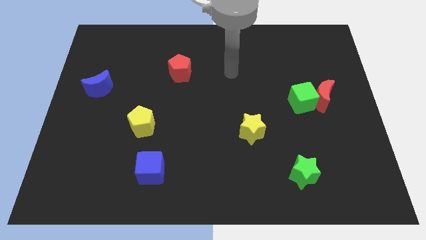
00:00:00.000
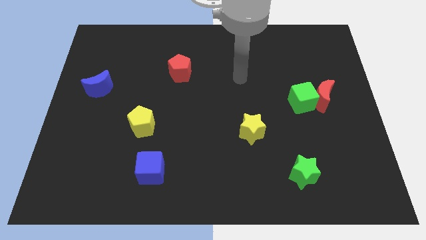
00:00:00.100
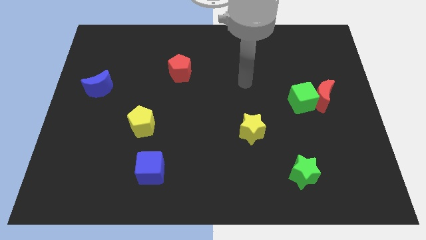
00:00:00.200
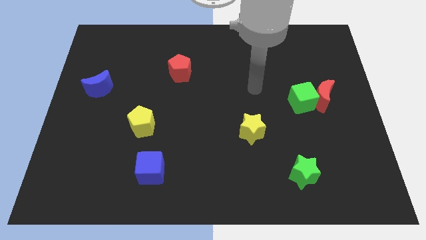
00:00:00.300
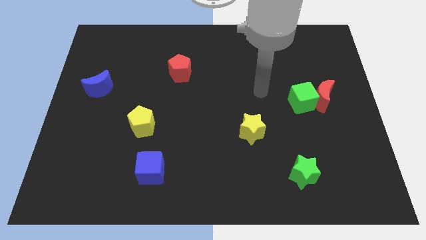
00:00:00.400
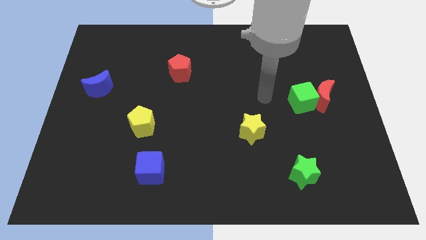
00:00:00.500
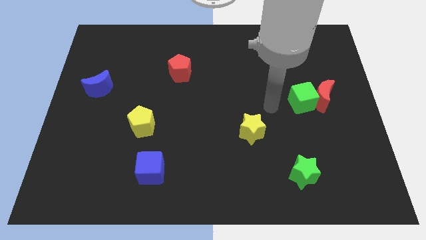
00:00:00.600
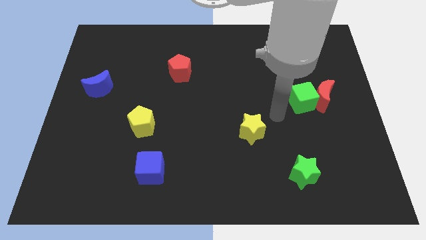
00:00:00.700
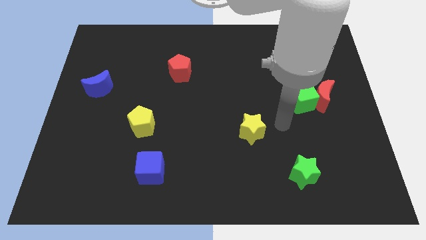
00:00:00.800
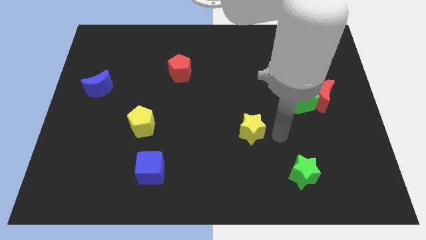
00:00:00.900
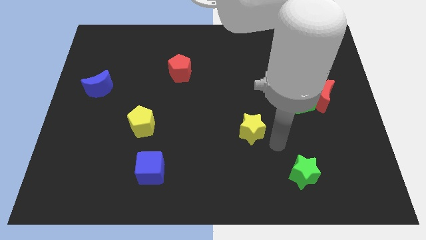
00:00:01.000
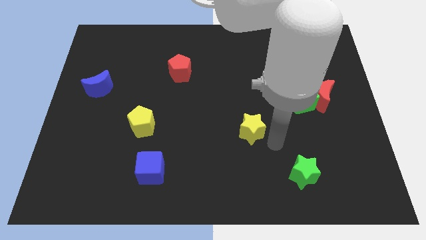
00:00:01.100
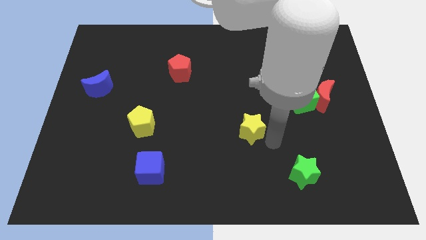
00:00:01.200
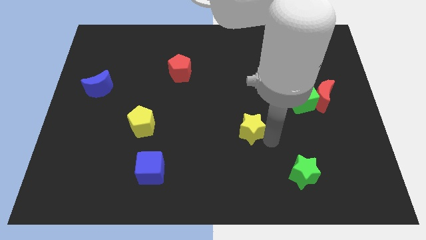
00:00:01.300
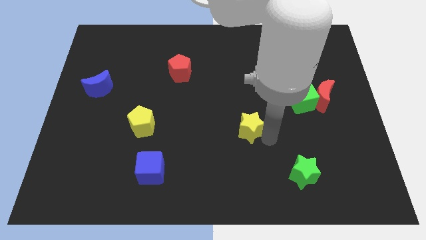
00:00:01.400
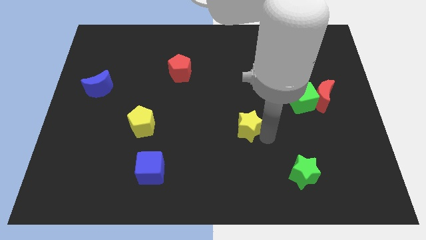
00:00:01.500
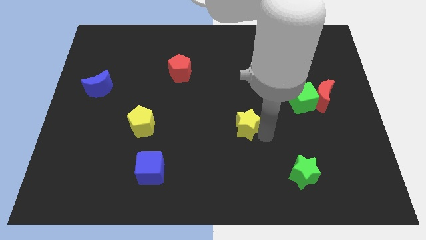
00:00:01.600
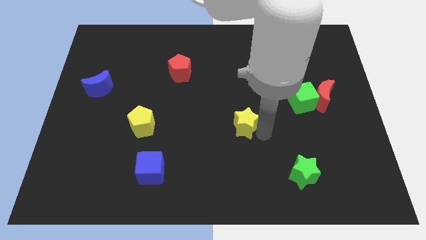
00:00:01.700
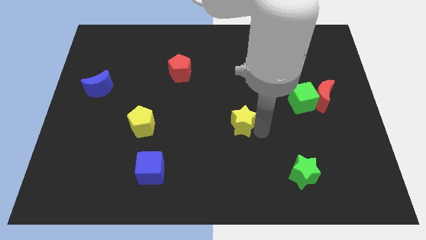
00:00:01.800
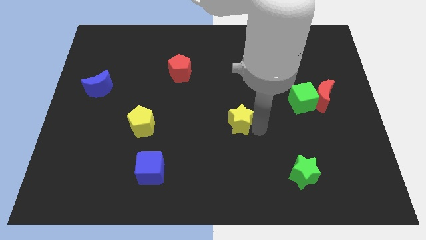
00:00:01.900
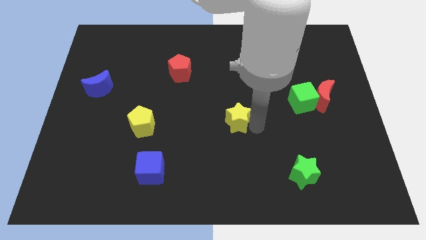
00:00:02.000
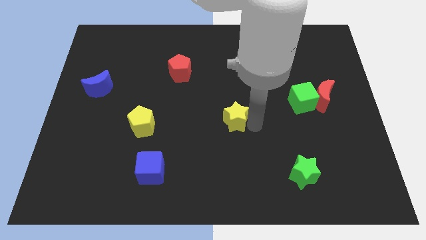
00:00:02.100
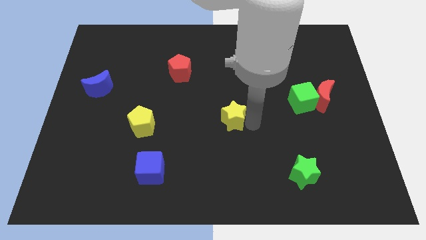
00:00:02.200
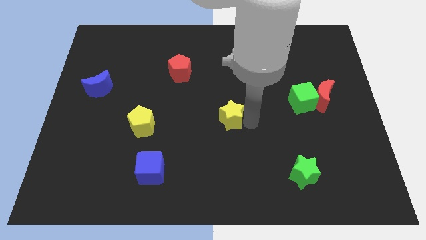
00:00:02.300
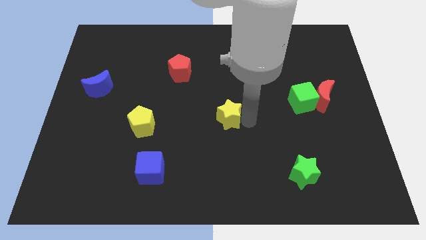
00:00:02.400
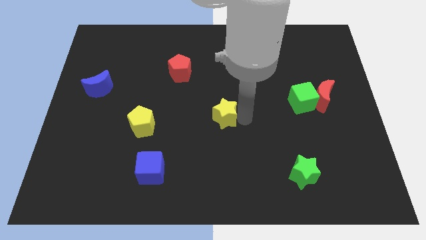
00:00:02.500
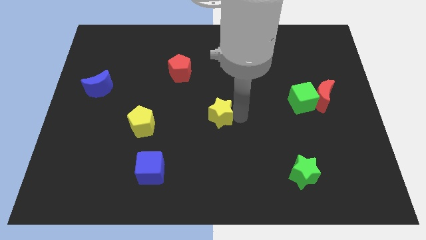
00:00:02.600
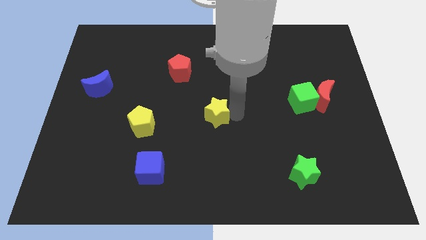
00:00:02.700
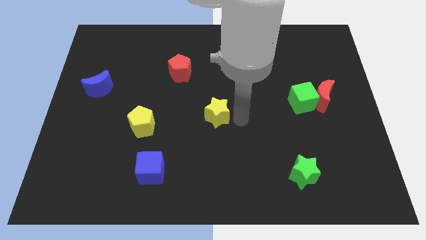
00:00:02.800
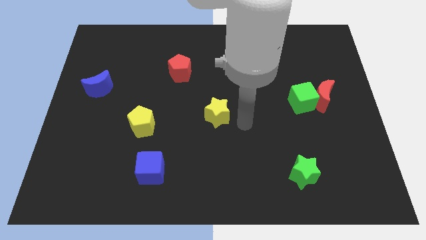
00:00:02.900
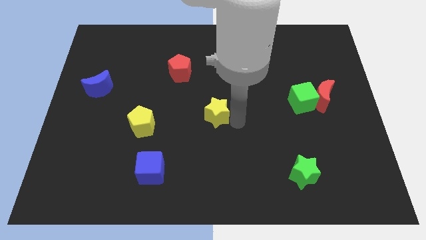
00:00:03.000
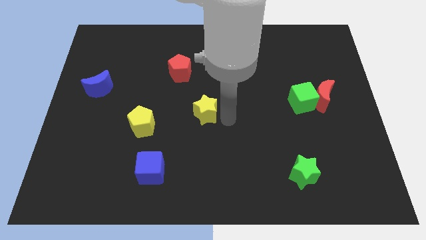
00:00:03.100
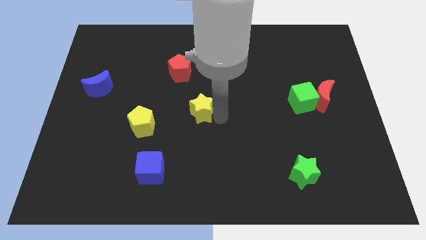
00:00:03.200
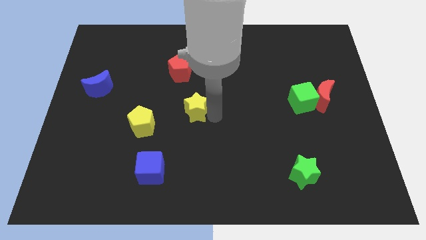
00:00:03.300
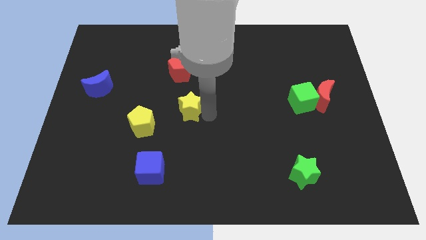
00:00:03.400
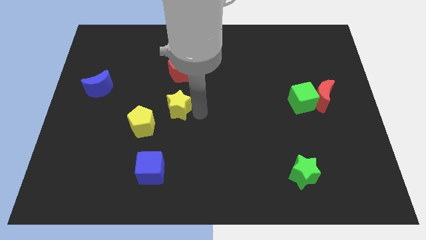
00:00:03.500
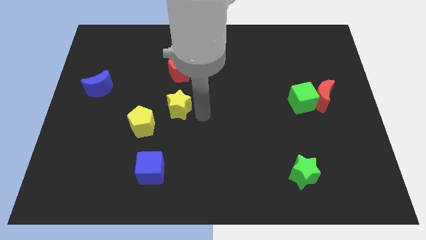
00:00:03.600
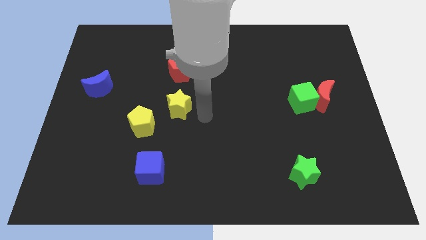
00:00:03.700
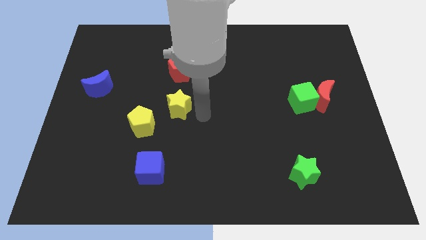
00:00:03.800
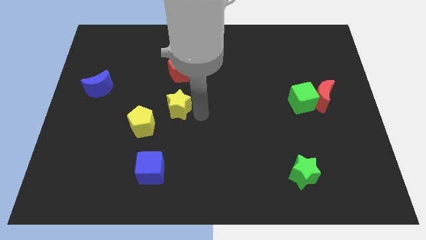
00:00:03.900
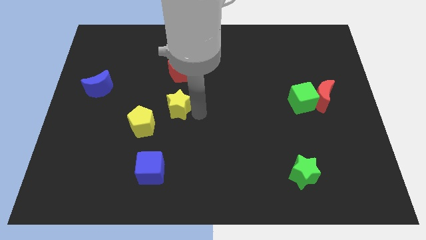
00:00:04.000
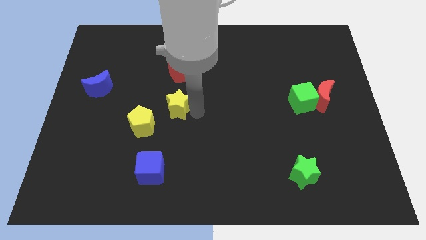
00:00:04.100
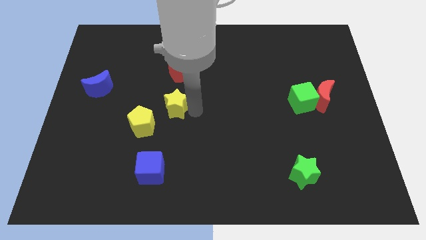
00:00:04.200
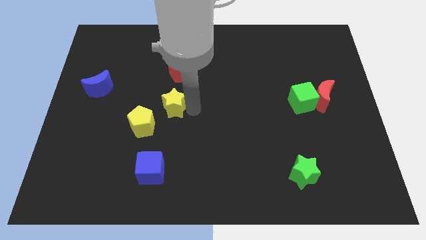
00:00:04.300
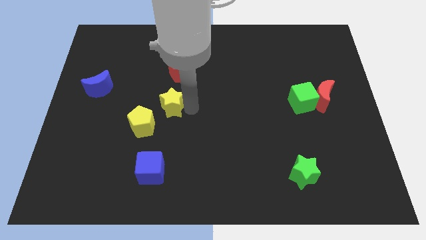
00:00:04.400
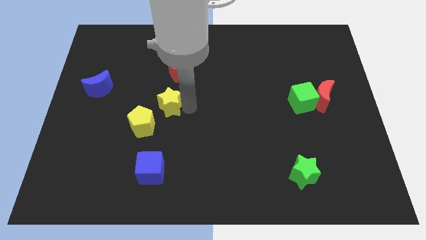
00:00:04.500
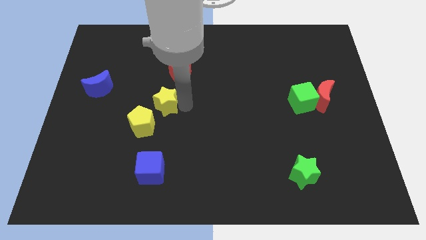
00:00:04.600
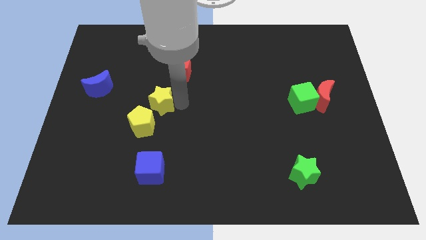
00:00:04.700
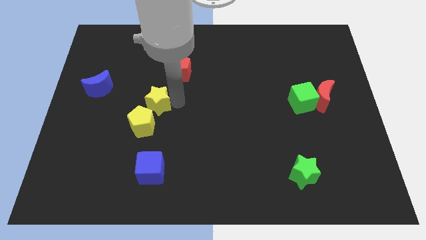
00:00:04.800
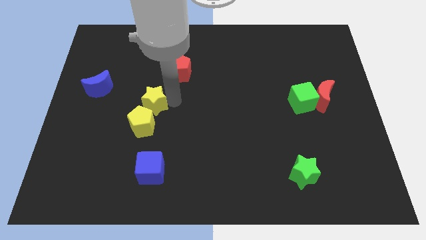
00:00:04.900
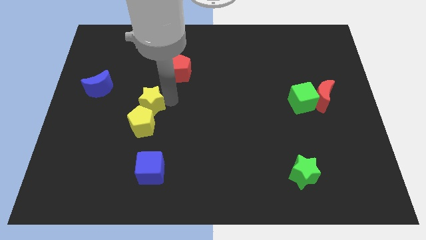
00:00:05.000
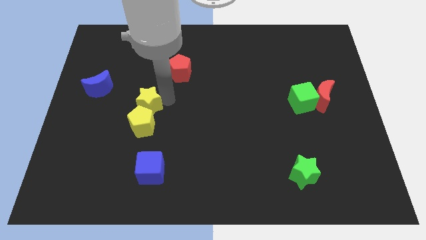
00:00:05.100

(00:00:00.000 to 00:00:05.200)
move the yellow star to the top left of the yellow pentagon

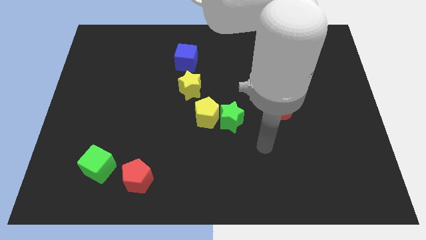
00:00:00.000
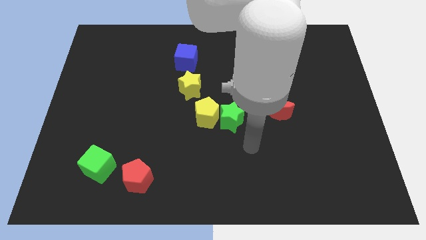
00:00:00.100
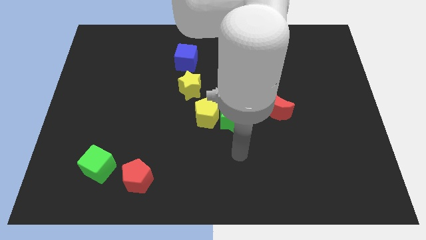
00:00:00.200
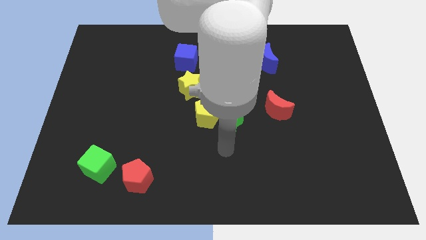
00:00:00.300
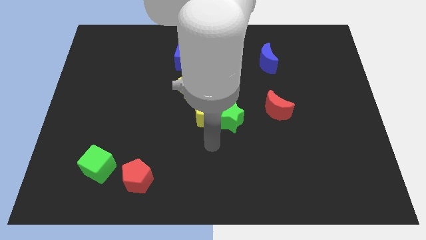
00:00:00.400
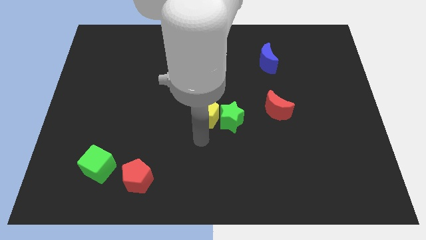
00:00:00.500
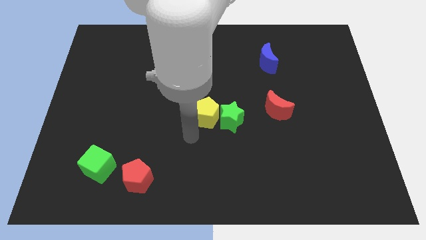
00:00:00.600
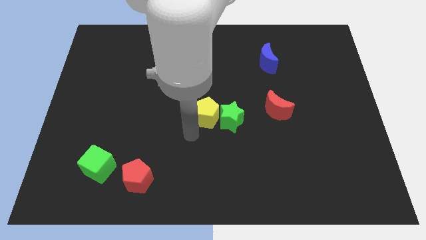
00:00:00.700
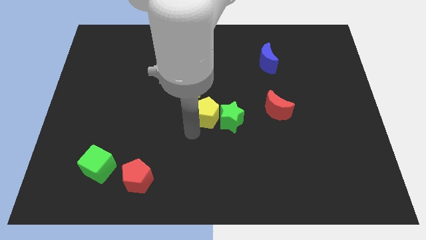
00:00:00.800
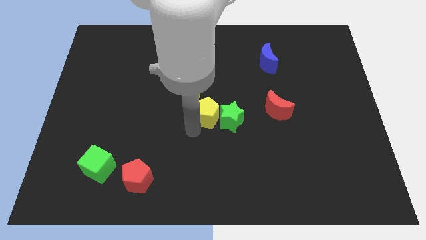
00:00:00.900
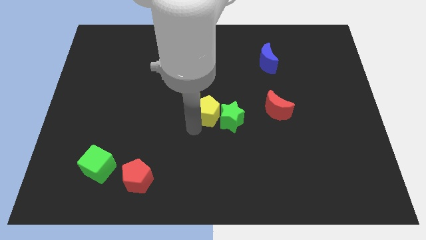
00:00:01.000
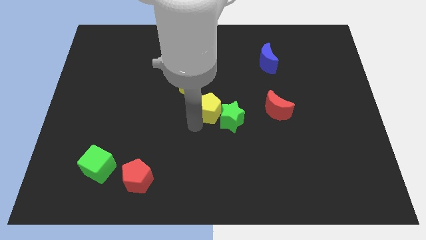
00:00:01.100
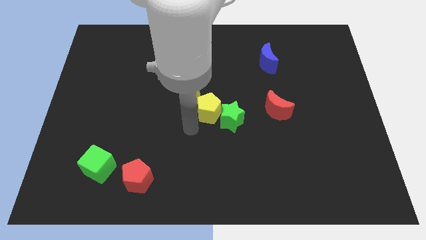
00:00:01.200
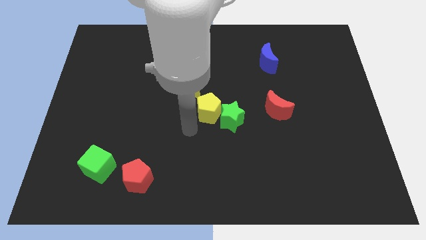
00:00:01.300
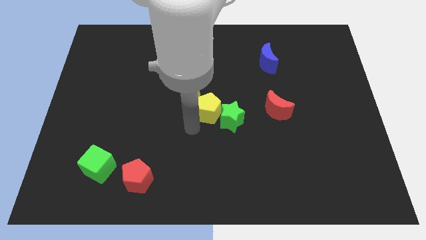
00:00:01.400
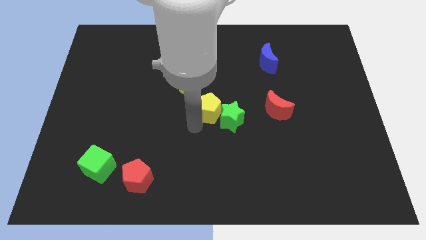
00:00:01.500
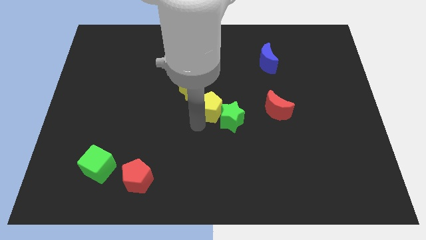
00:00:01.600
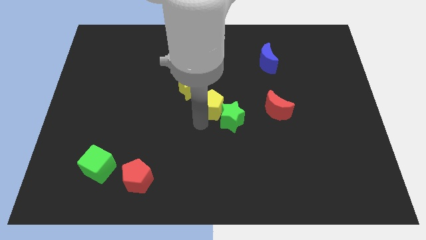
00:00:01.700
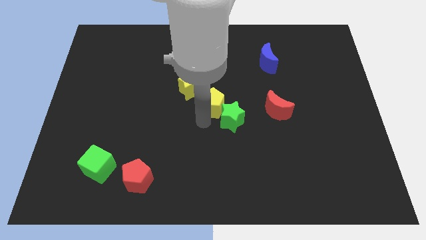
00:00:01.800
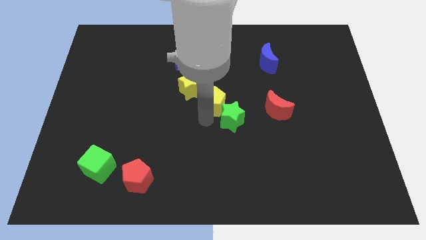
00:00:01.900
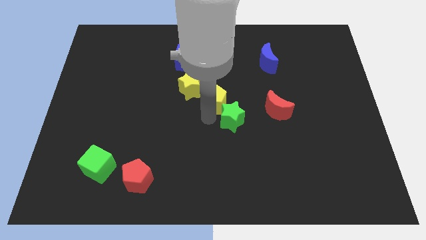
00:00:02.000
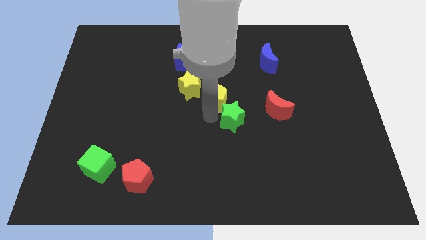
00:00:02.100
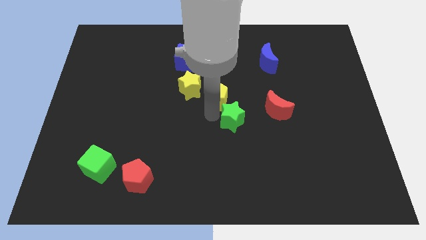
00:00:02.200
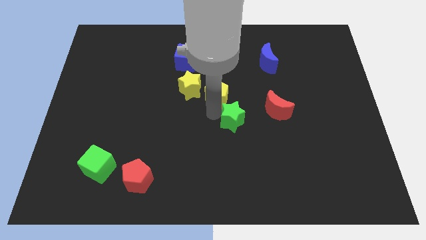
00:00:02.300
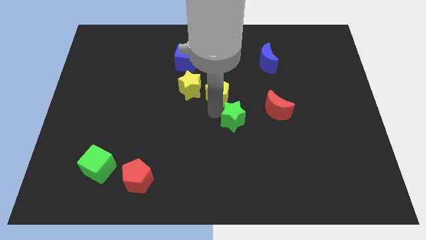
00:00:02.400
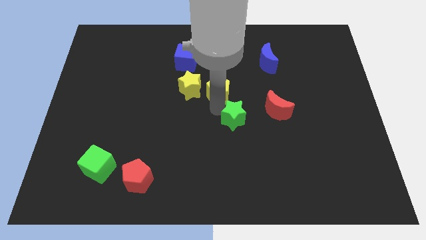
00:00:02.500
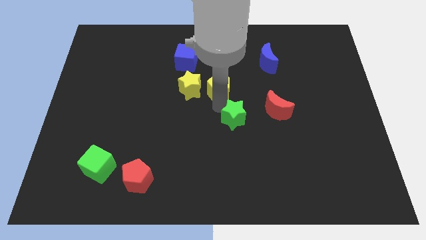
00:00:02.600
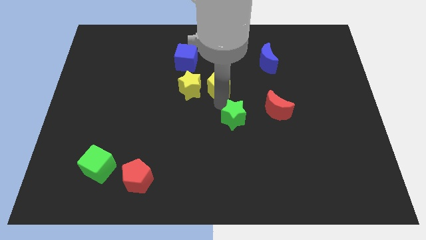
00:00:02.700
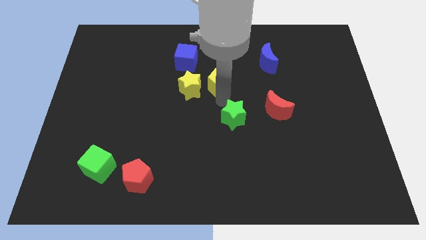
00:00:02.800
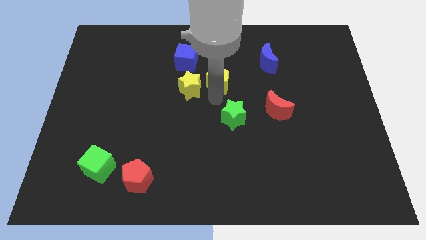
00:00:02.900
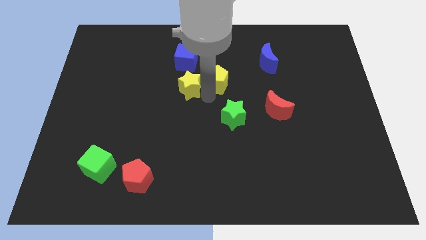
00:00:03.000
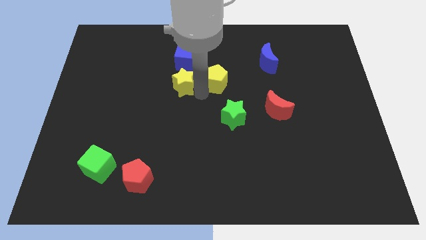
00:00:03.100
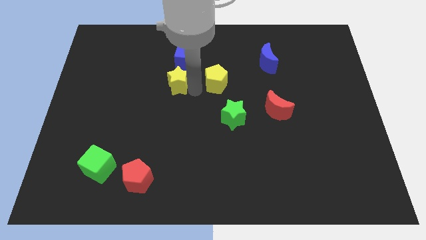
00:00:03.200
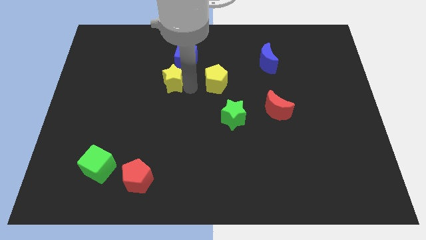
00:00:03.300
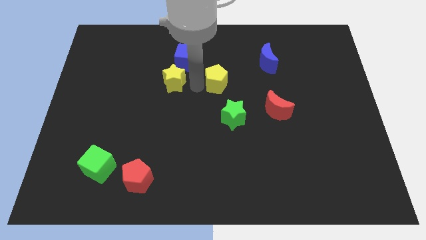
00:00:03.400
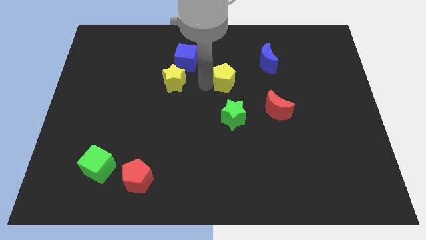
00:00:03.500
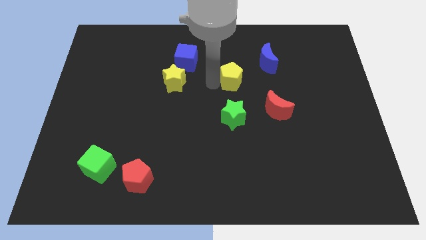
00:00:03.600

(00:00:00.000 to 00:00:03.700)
slide the yellow pentagon to the bottom left of the blue moon
